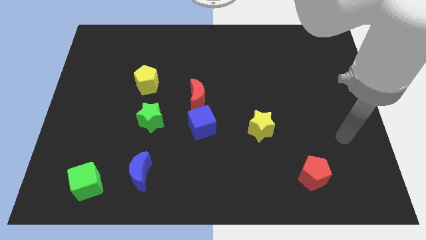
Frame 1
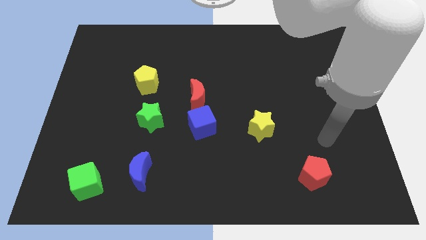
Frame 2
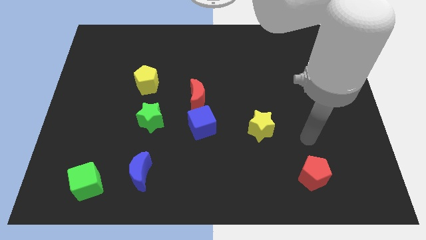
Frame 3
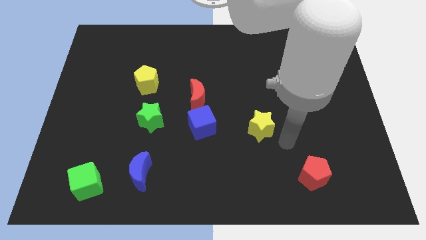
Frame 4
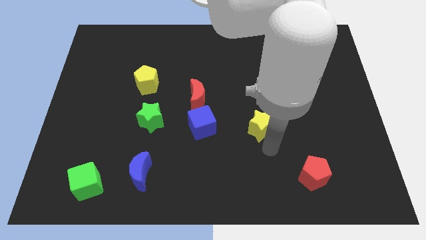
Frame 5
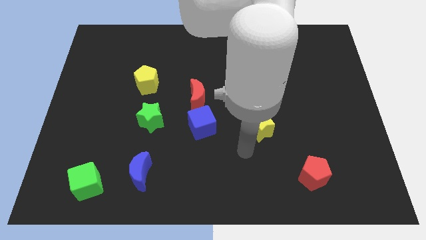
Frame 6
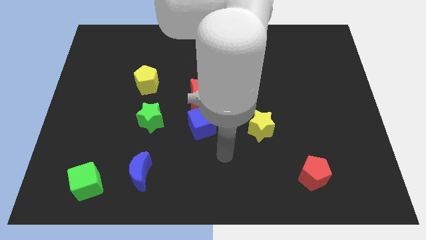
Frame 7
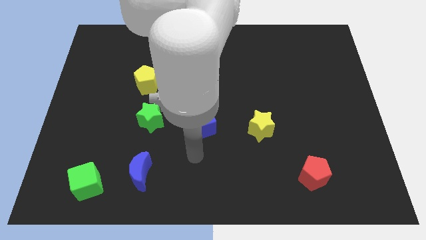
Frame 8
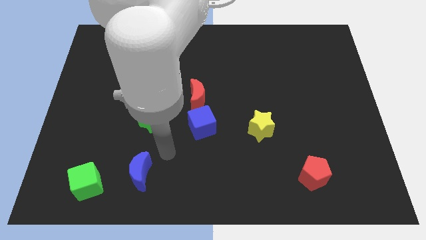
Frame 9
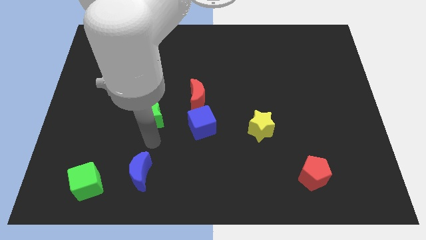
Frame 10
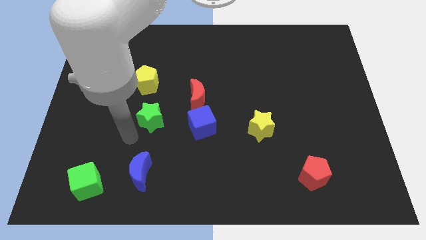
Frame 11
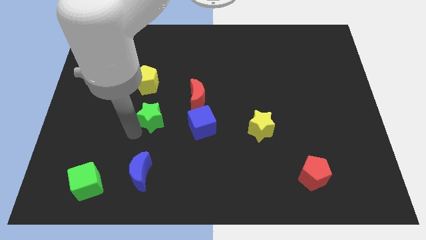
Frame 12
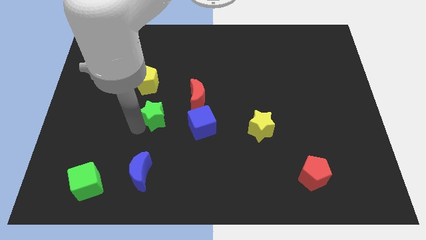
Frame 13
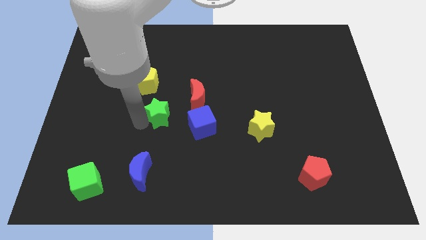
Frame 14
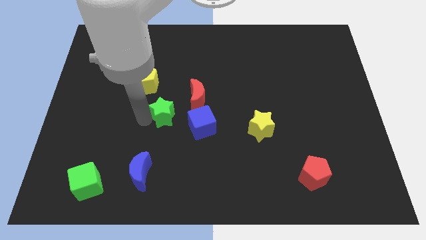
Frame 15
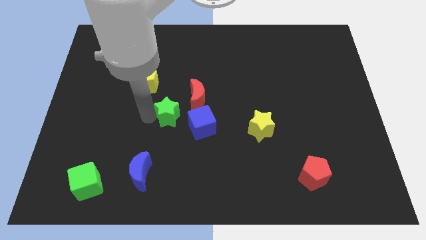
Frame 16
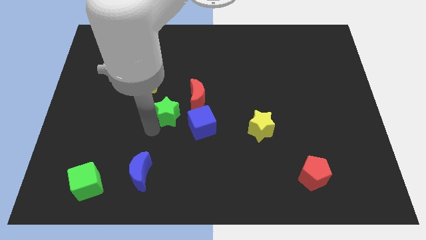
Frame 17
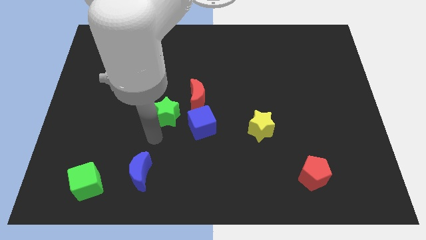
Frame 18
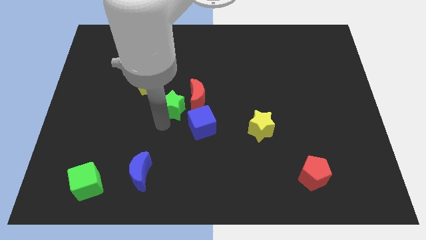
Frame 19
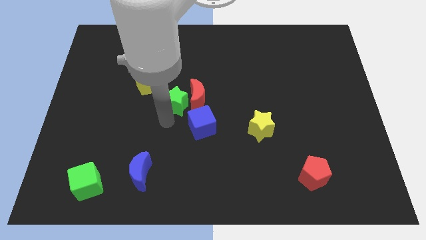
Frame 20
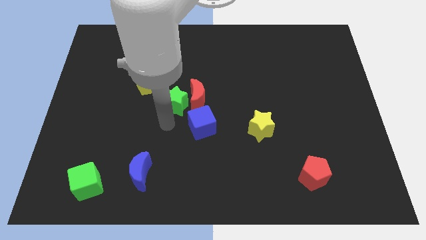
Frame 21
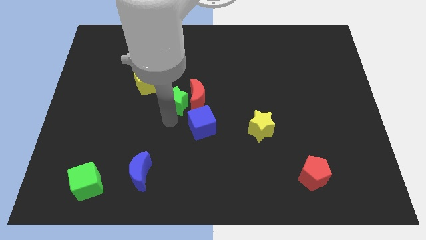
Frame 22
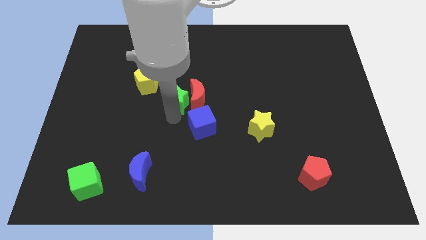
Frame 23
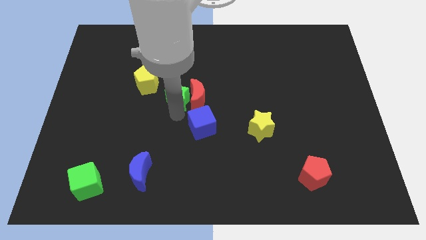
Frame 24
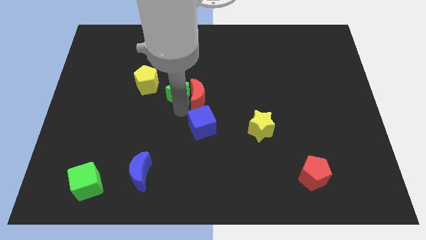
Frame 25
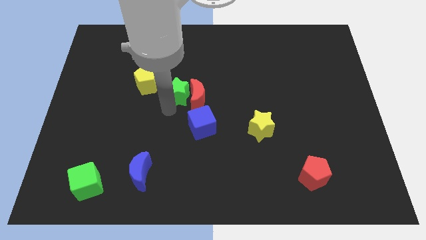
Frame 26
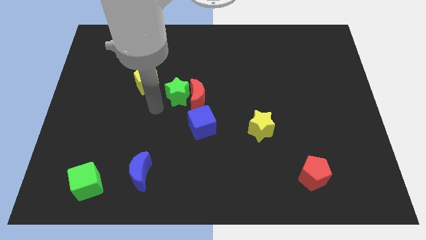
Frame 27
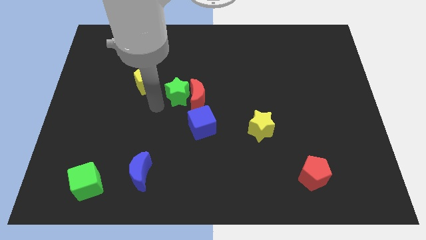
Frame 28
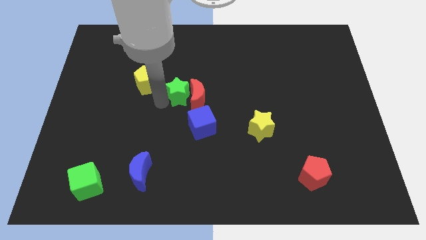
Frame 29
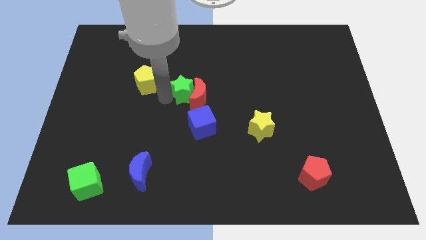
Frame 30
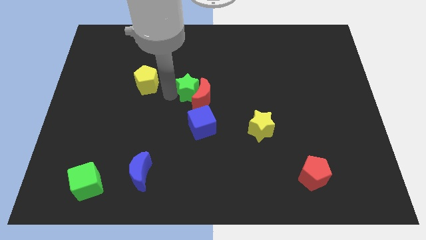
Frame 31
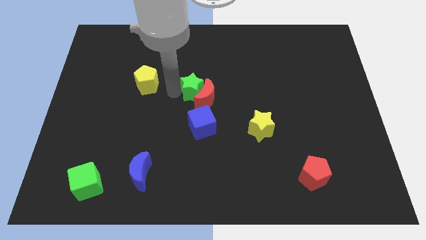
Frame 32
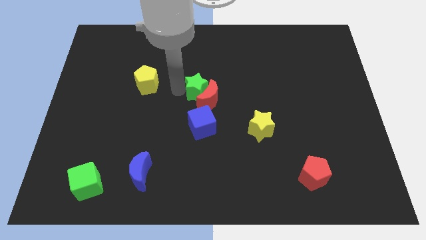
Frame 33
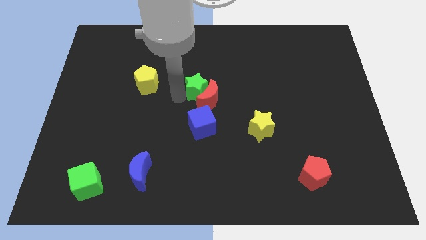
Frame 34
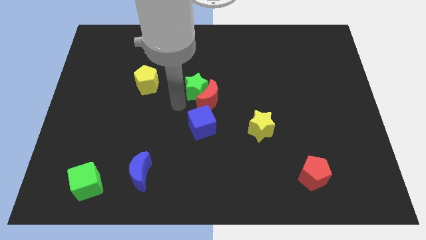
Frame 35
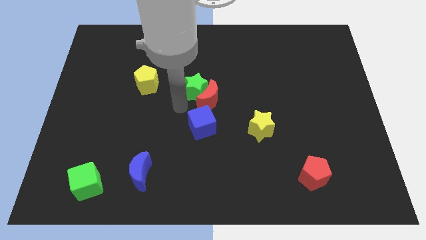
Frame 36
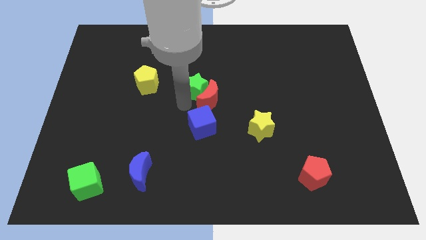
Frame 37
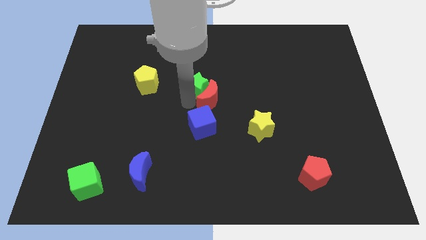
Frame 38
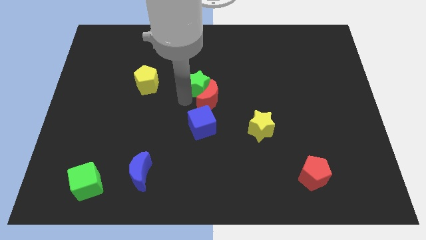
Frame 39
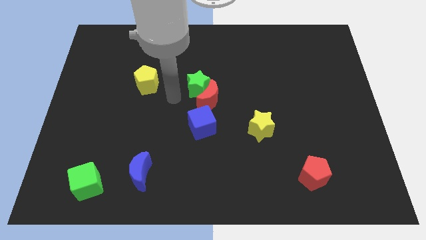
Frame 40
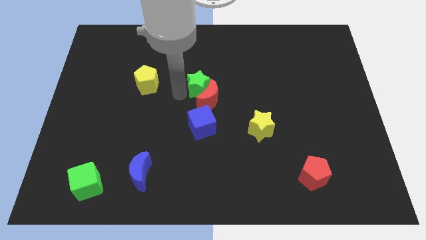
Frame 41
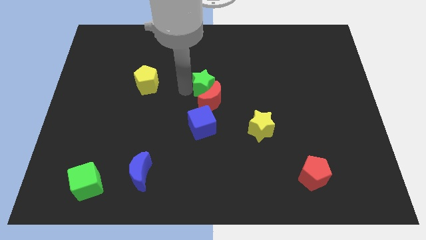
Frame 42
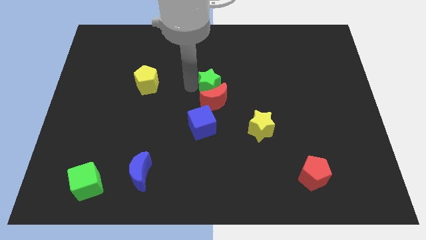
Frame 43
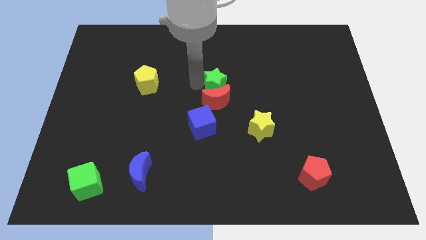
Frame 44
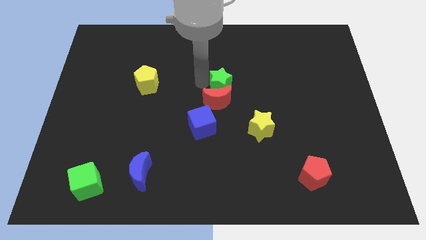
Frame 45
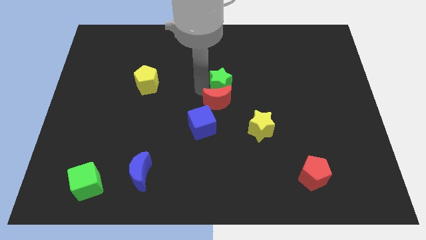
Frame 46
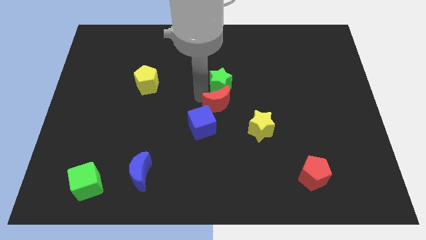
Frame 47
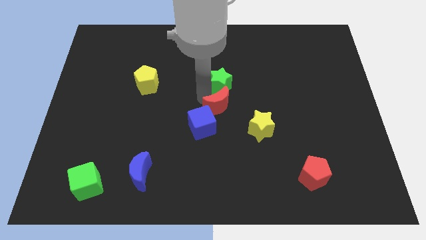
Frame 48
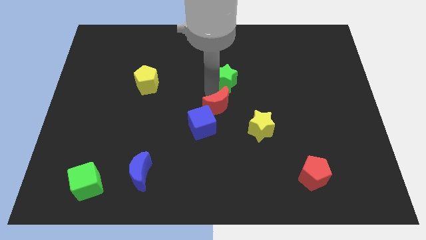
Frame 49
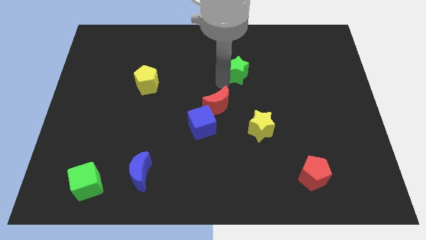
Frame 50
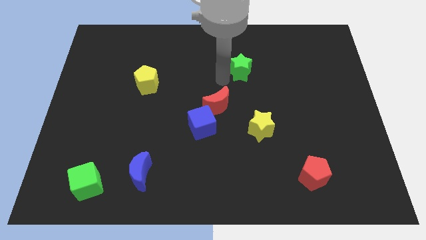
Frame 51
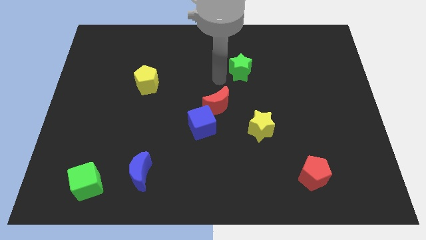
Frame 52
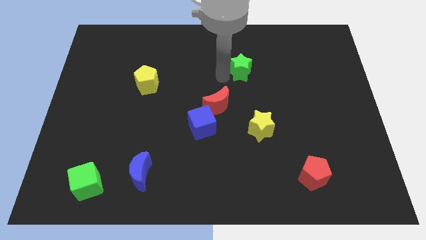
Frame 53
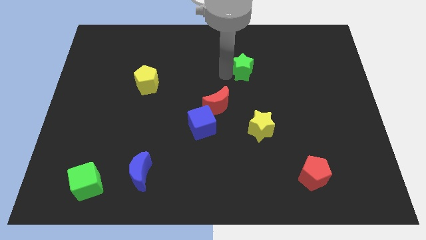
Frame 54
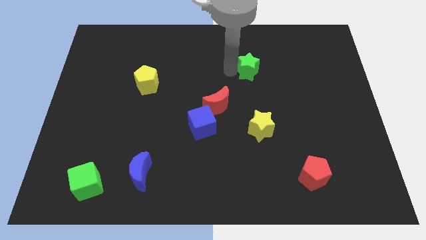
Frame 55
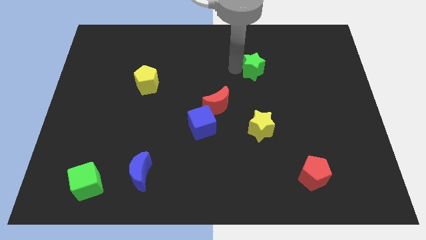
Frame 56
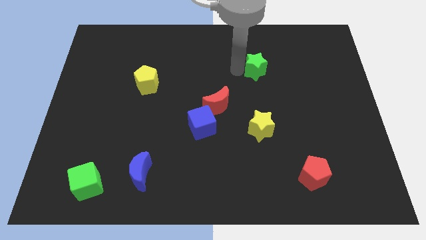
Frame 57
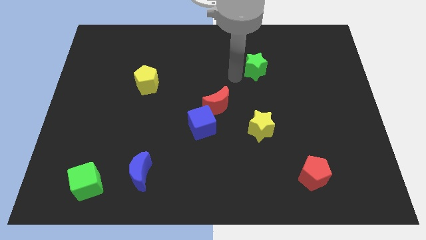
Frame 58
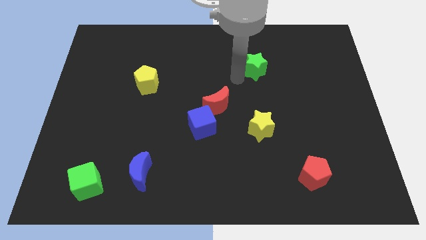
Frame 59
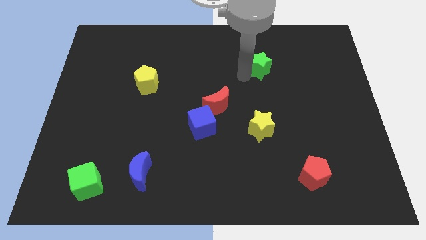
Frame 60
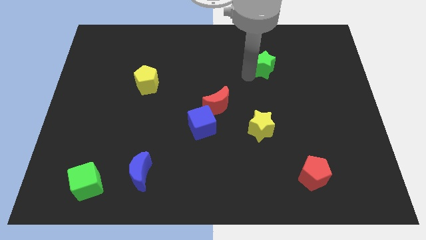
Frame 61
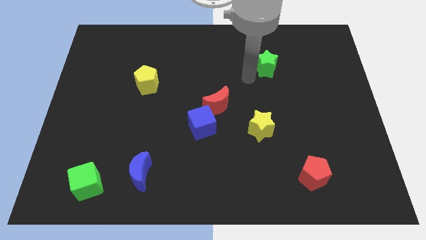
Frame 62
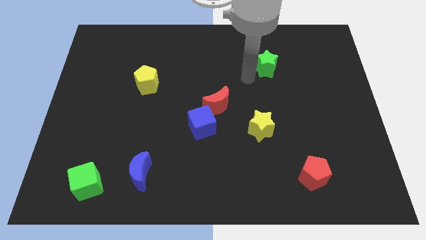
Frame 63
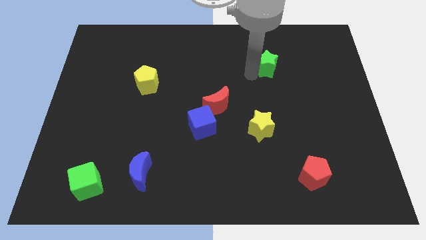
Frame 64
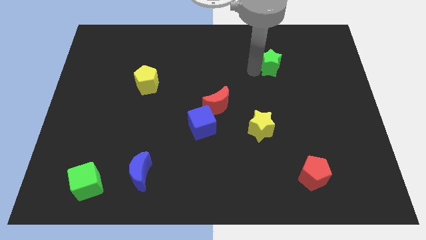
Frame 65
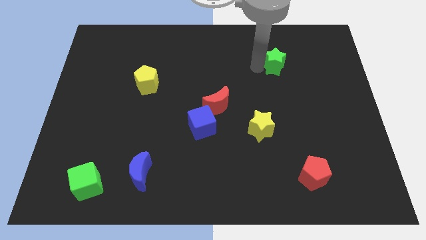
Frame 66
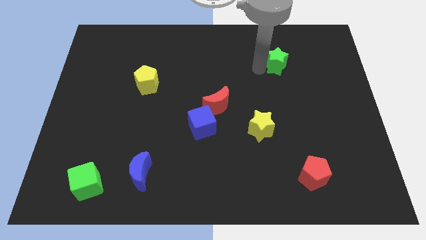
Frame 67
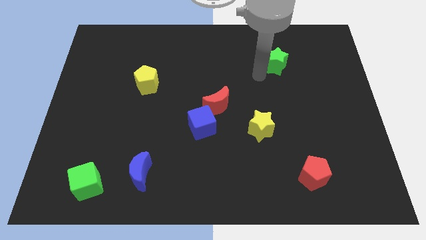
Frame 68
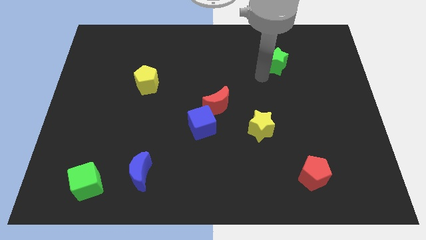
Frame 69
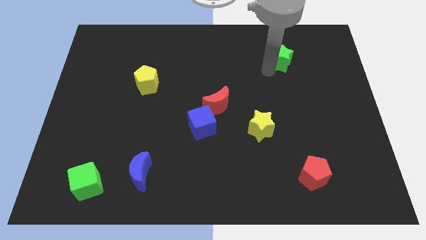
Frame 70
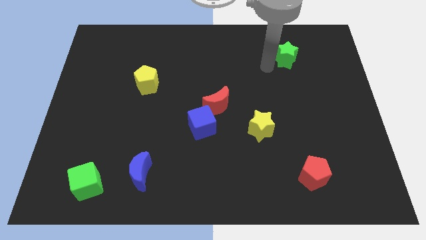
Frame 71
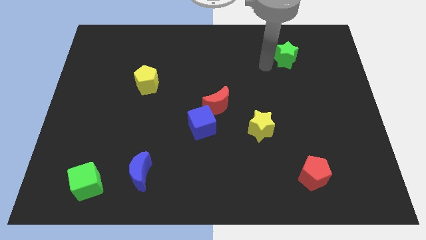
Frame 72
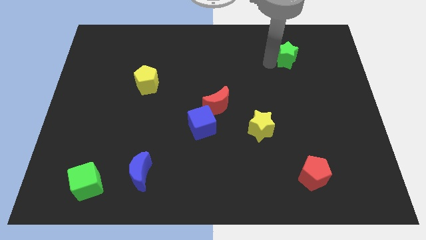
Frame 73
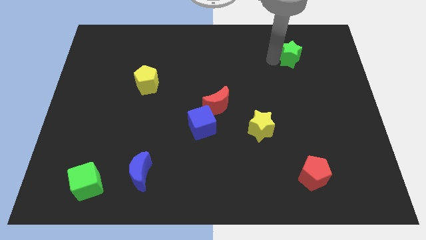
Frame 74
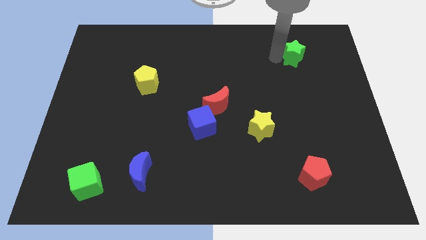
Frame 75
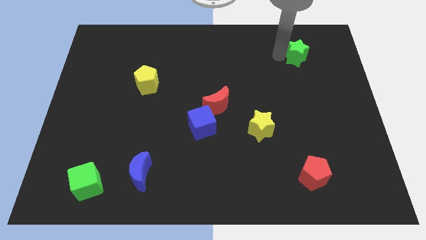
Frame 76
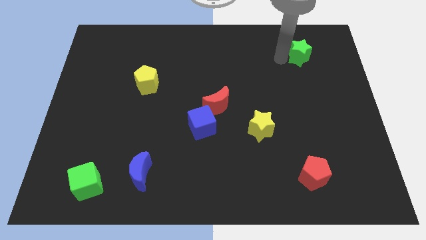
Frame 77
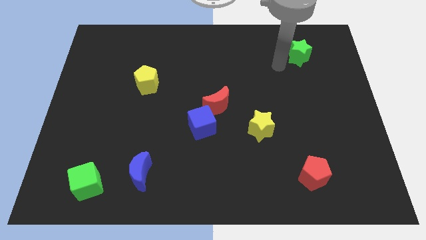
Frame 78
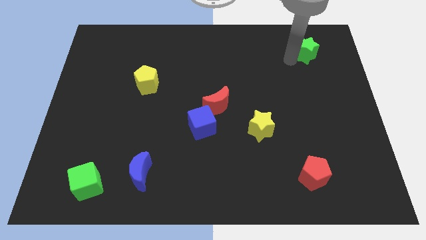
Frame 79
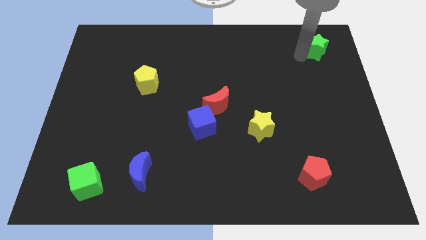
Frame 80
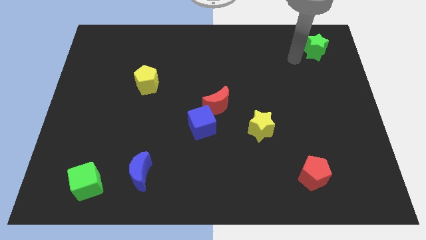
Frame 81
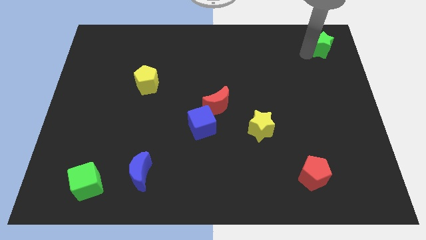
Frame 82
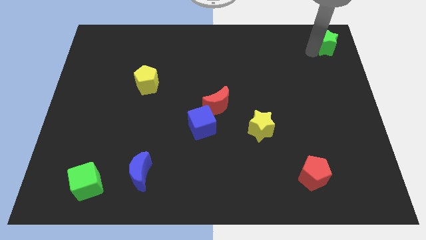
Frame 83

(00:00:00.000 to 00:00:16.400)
slide the green star to the top right corner
